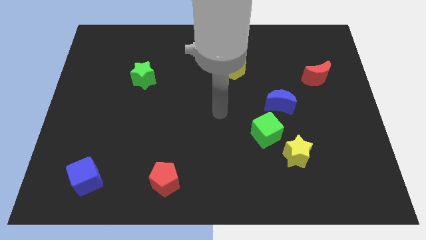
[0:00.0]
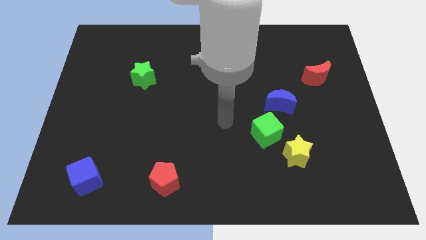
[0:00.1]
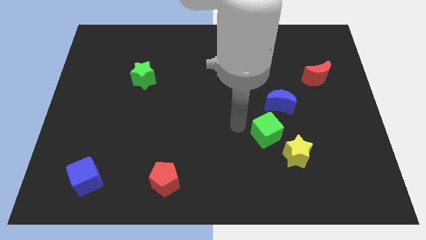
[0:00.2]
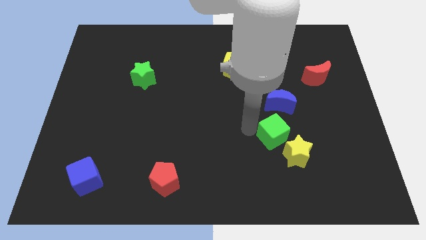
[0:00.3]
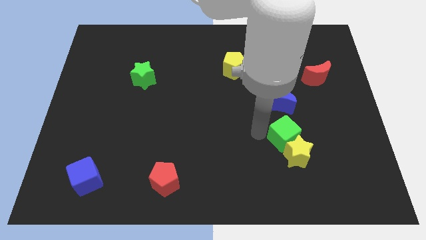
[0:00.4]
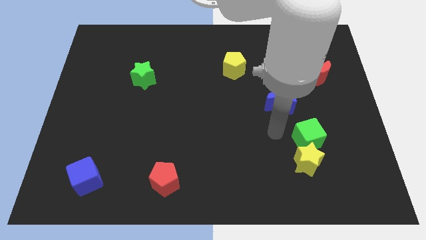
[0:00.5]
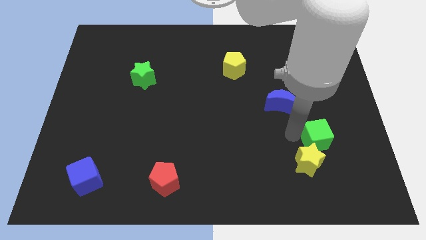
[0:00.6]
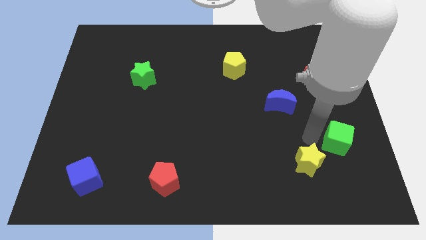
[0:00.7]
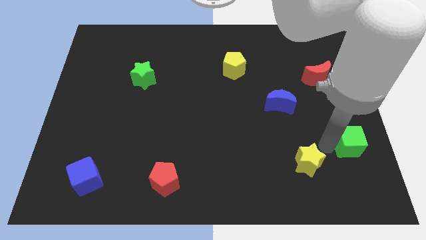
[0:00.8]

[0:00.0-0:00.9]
separate the yellow star from the green cube

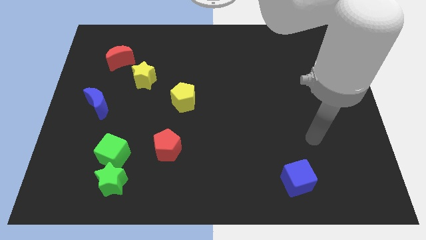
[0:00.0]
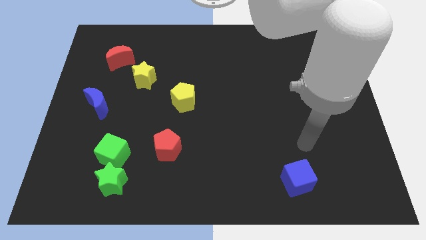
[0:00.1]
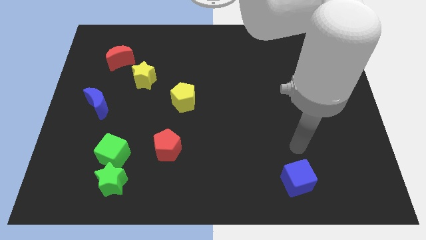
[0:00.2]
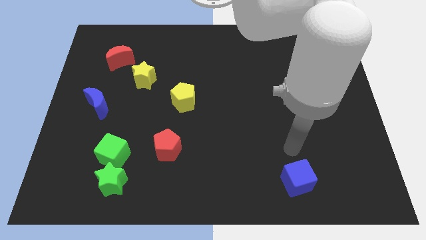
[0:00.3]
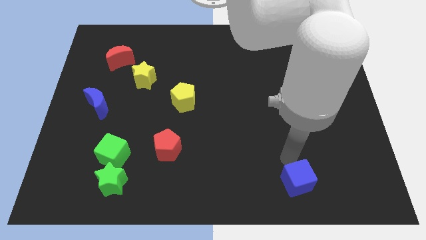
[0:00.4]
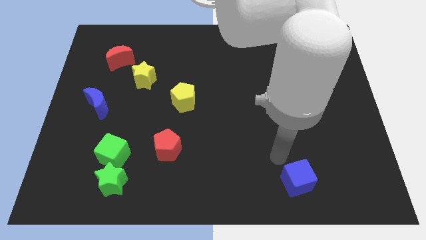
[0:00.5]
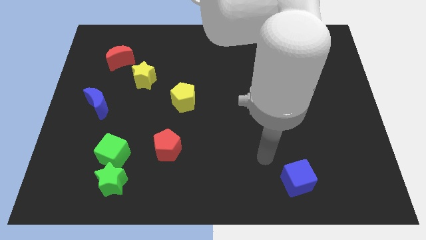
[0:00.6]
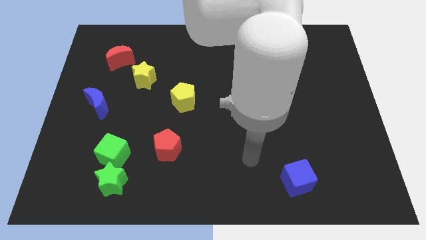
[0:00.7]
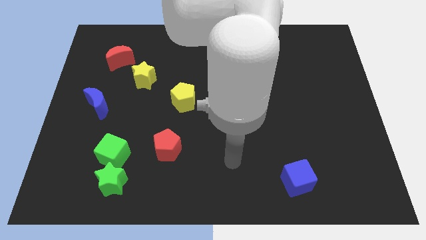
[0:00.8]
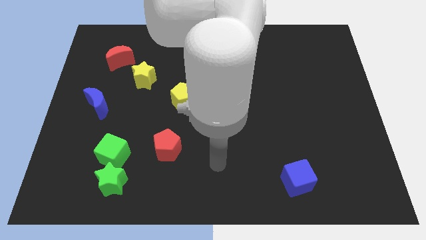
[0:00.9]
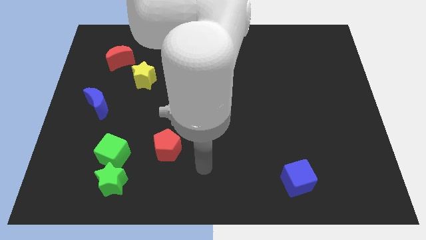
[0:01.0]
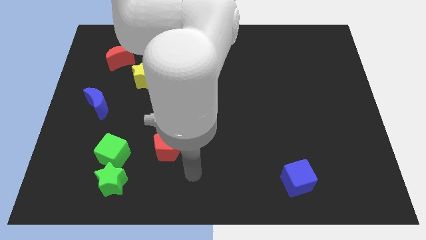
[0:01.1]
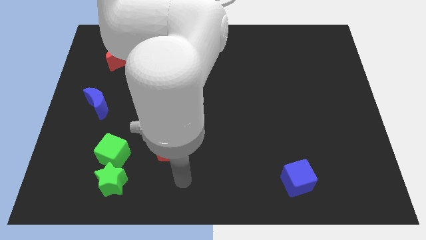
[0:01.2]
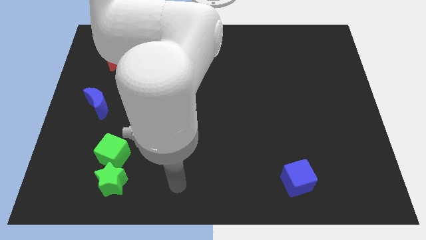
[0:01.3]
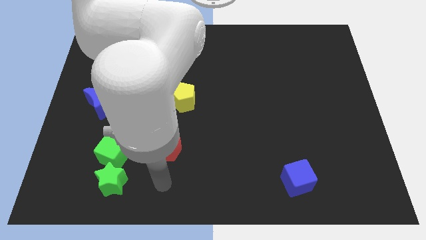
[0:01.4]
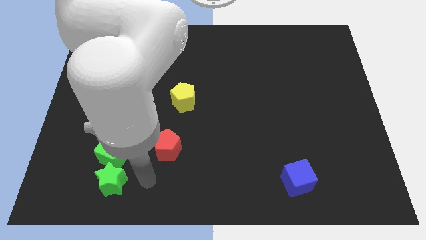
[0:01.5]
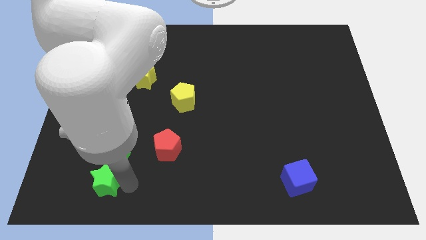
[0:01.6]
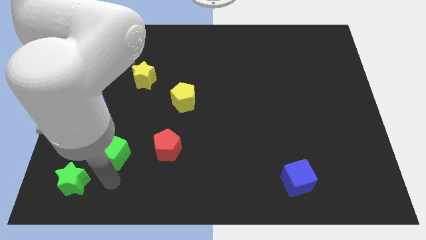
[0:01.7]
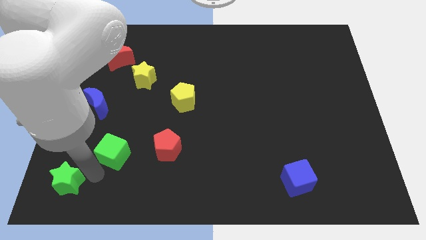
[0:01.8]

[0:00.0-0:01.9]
move the green cube away from the green star

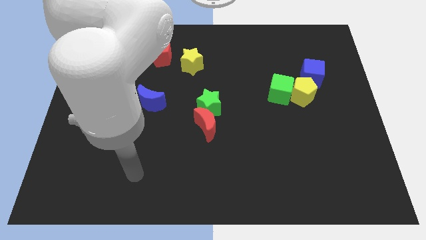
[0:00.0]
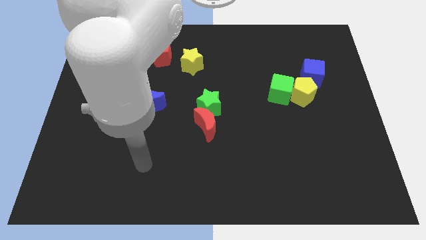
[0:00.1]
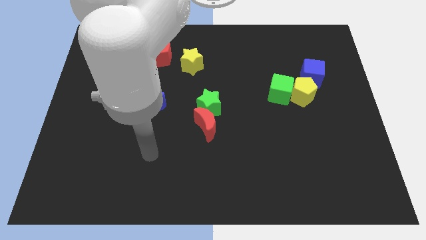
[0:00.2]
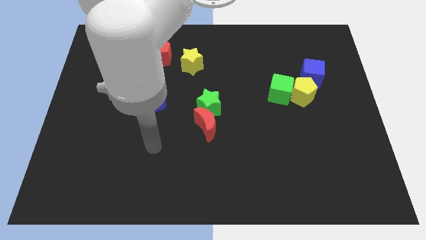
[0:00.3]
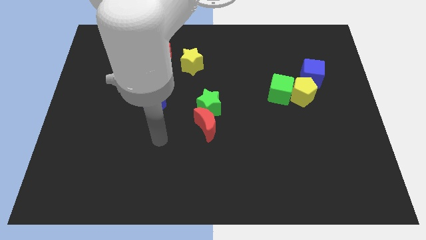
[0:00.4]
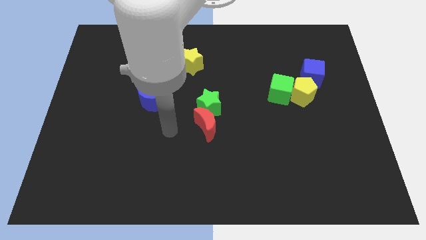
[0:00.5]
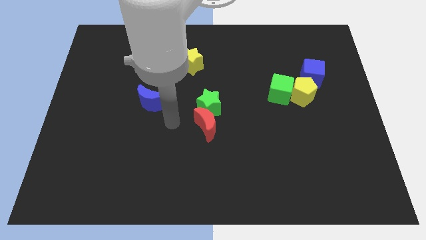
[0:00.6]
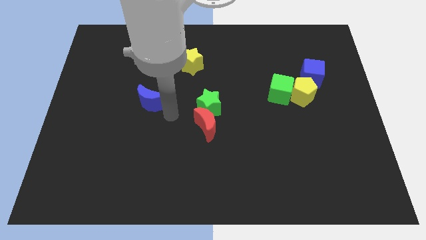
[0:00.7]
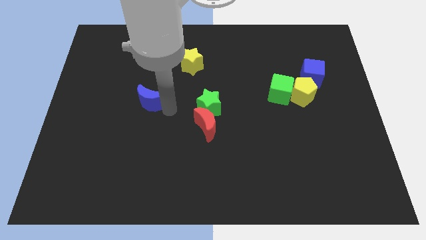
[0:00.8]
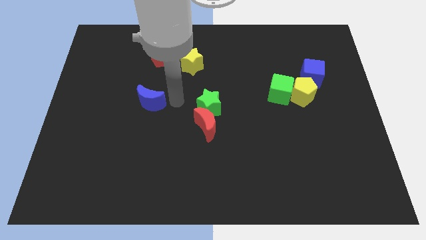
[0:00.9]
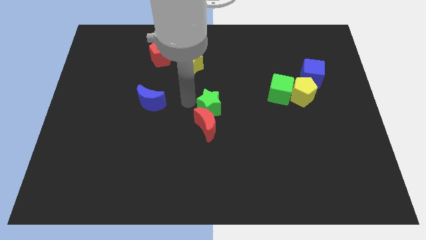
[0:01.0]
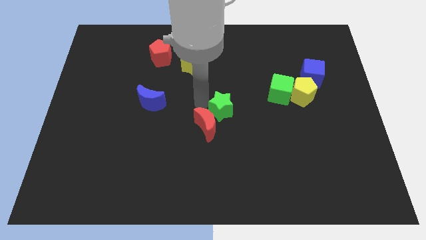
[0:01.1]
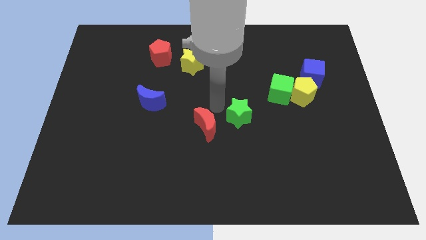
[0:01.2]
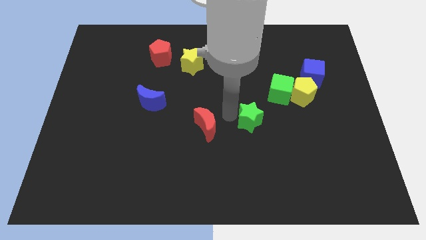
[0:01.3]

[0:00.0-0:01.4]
separate the red moon from the green star

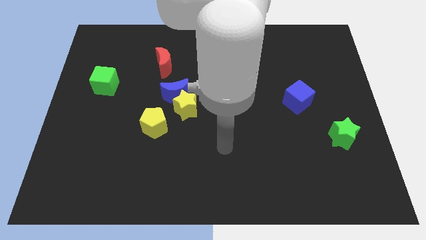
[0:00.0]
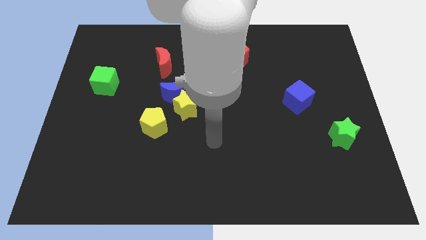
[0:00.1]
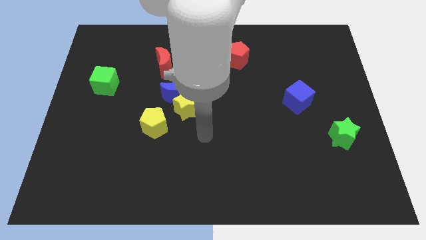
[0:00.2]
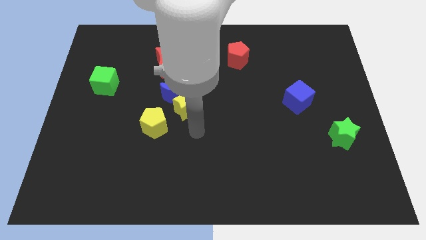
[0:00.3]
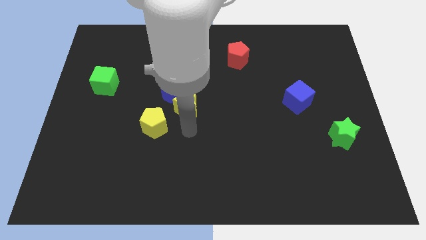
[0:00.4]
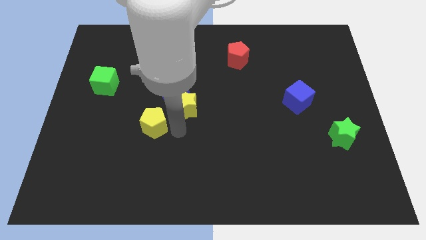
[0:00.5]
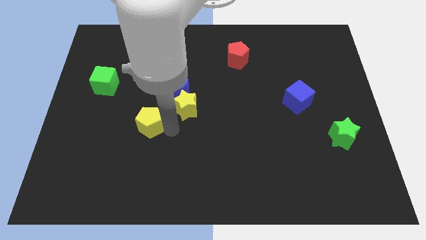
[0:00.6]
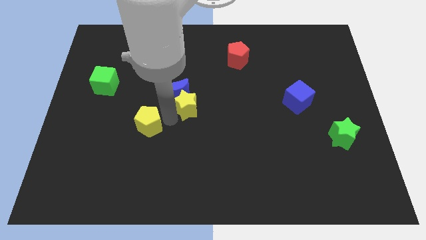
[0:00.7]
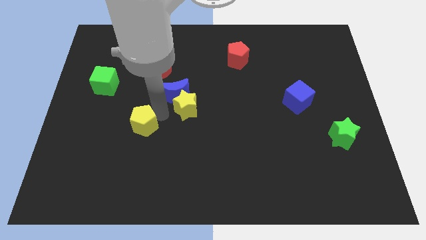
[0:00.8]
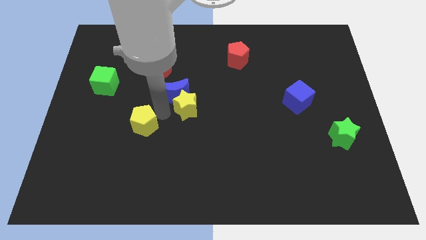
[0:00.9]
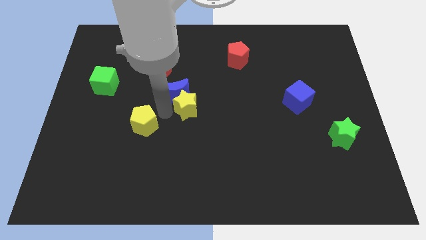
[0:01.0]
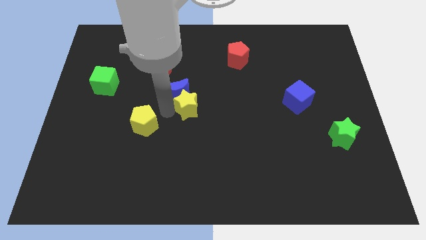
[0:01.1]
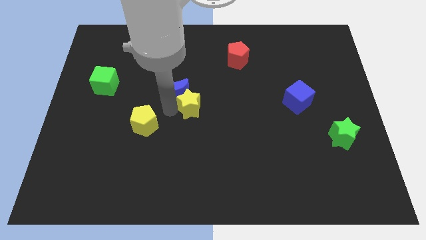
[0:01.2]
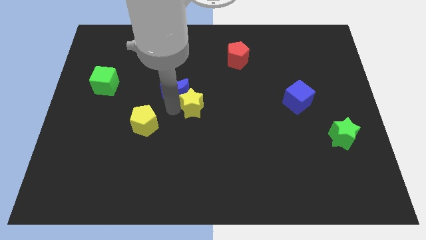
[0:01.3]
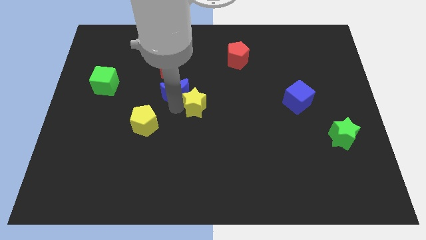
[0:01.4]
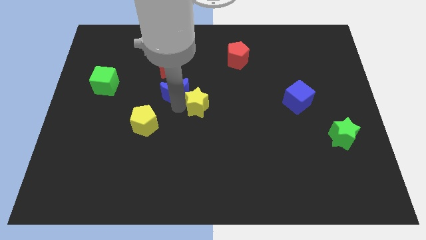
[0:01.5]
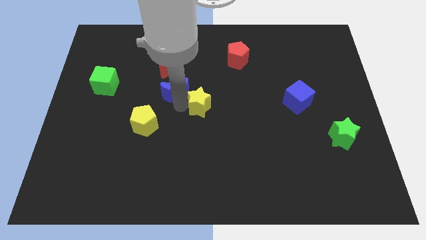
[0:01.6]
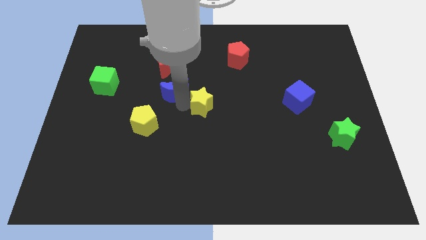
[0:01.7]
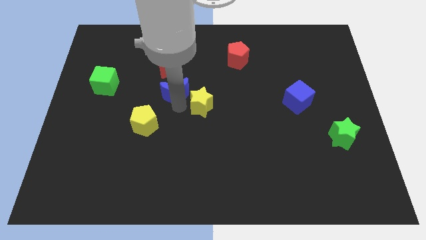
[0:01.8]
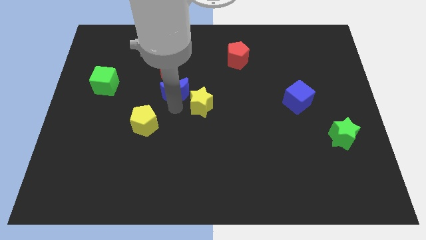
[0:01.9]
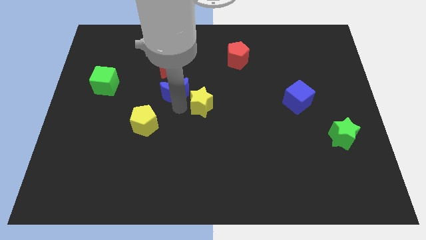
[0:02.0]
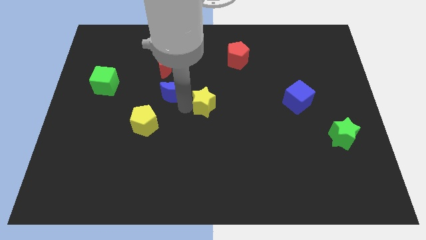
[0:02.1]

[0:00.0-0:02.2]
move the yellow star away from the blue moon and yellow pentagon

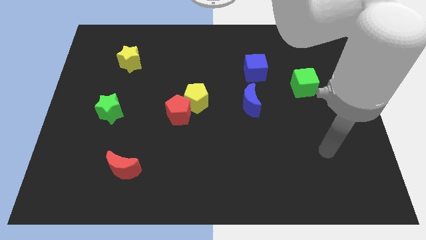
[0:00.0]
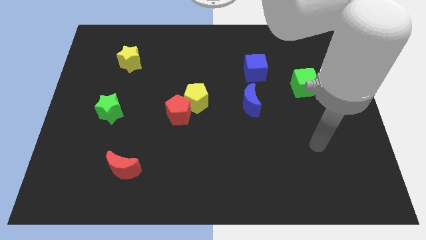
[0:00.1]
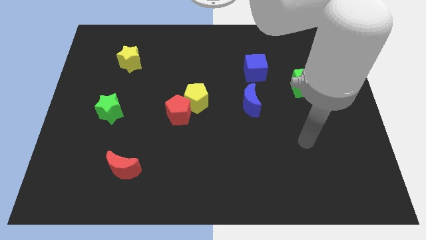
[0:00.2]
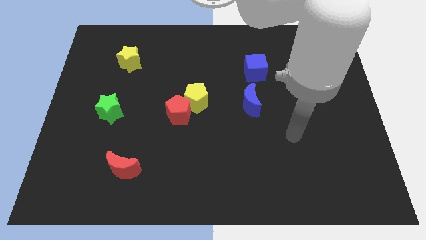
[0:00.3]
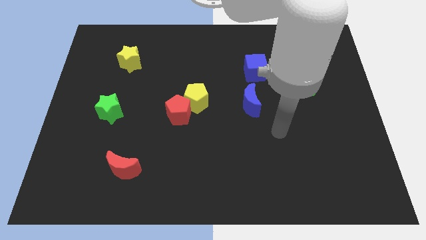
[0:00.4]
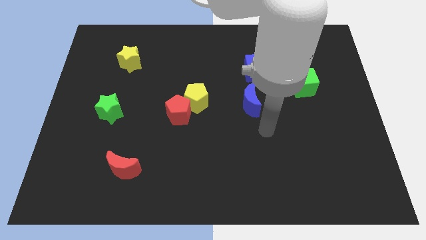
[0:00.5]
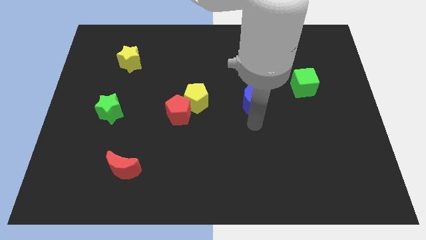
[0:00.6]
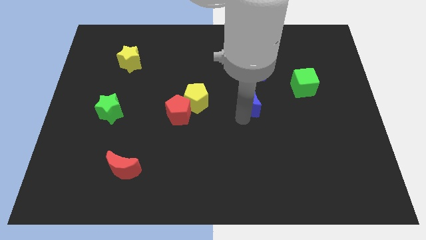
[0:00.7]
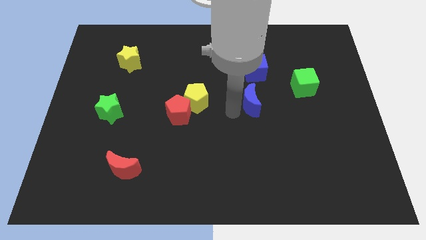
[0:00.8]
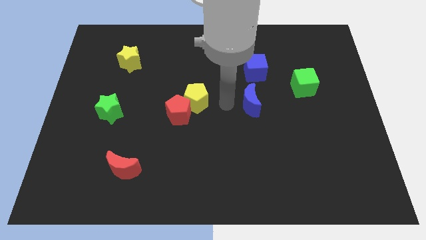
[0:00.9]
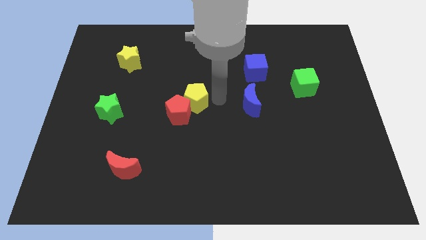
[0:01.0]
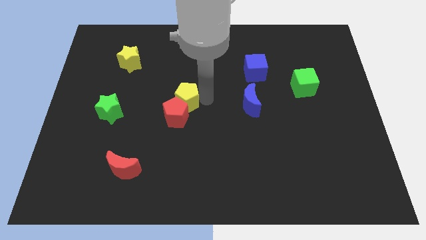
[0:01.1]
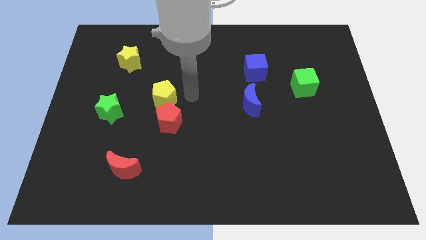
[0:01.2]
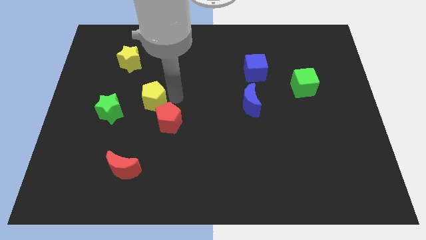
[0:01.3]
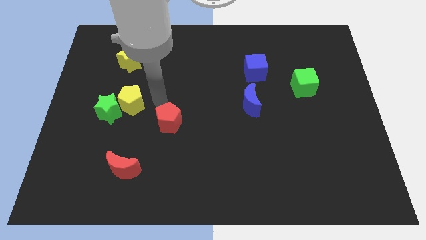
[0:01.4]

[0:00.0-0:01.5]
pull the red pentagon apart from the yellow pentagon

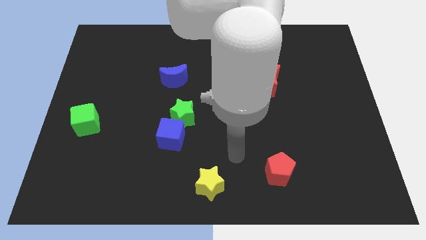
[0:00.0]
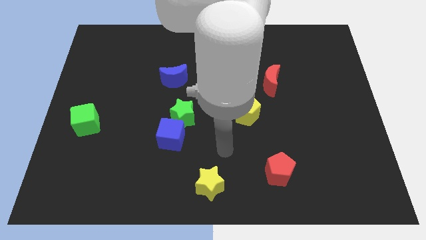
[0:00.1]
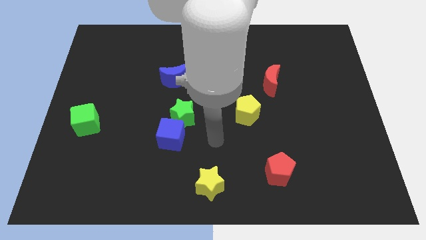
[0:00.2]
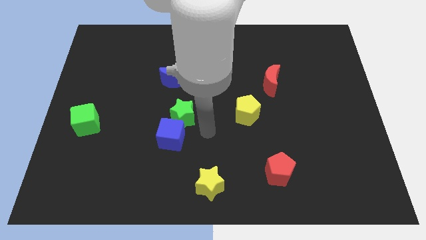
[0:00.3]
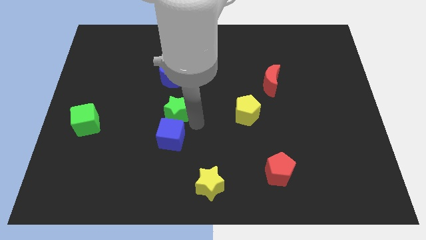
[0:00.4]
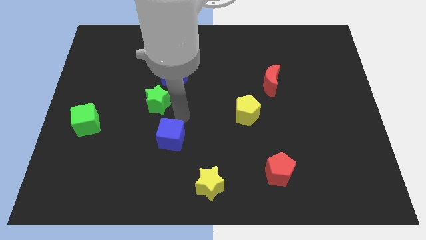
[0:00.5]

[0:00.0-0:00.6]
pull the blue cube apart from the green star

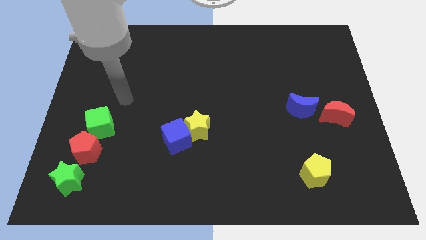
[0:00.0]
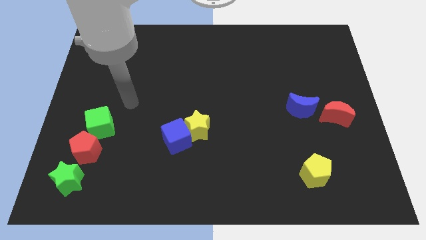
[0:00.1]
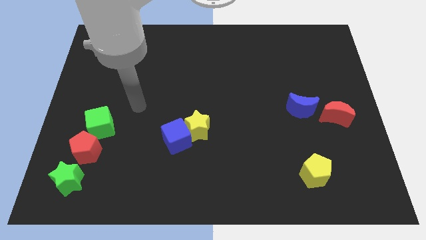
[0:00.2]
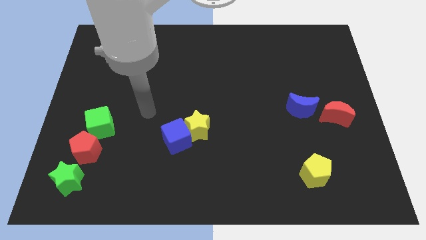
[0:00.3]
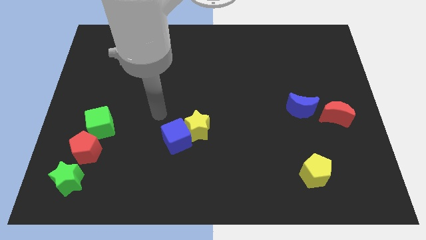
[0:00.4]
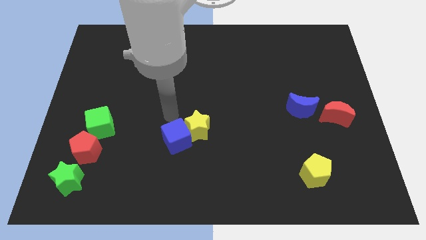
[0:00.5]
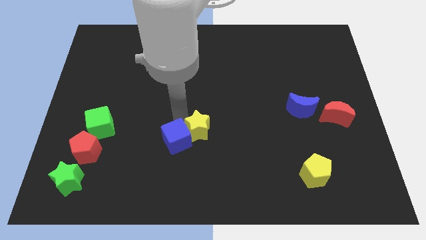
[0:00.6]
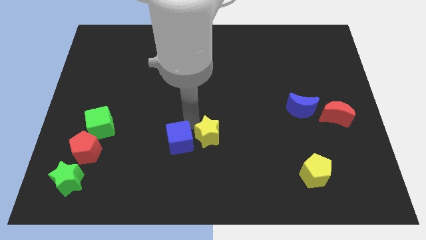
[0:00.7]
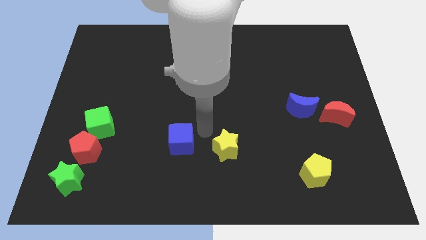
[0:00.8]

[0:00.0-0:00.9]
pull the blue cube apart from the yellow star

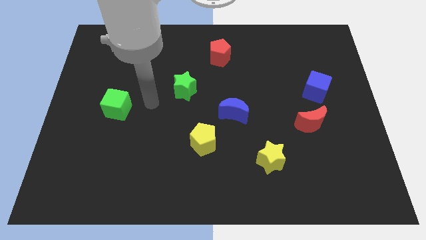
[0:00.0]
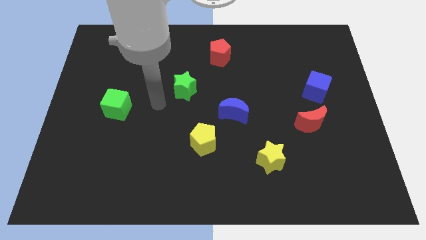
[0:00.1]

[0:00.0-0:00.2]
separate the red moon from the blue cube
